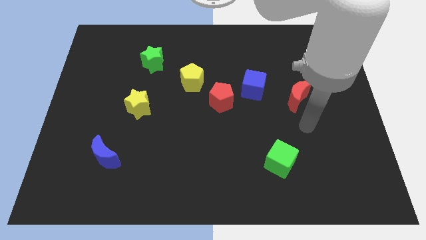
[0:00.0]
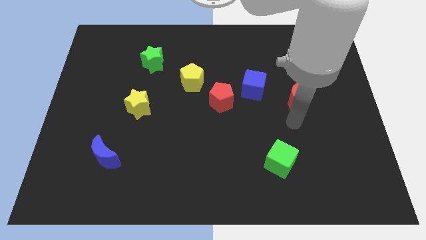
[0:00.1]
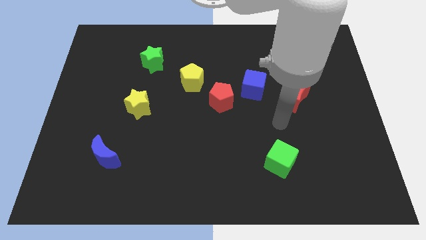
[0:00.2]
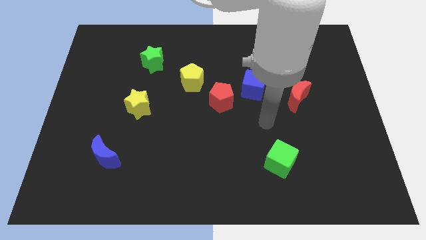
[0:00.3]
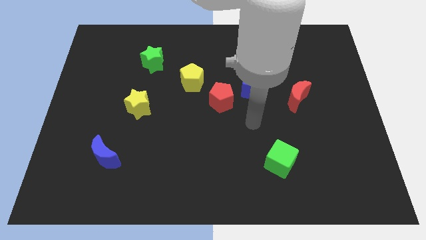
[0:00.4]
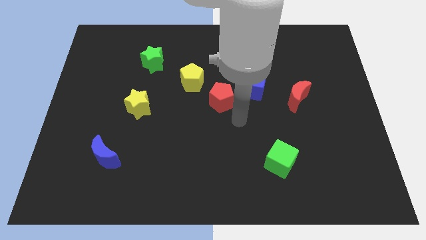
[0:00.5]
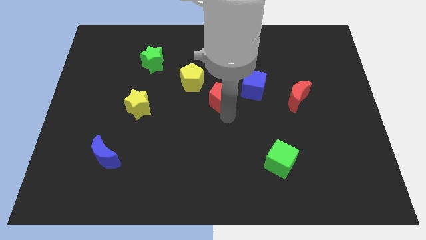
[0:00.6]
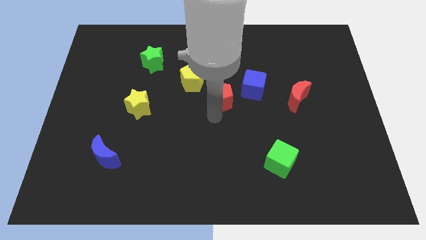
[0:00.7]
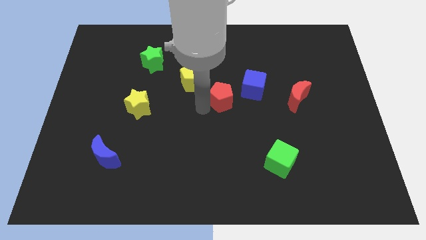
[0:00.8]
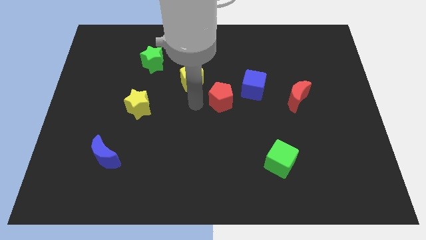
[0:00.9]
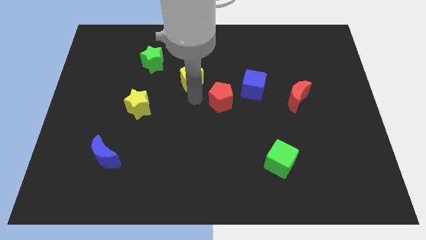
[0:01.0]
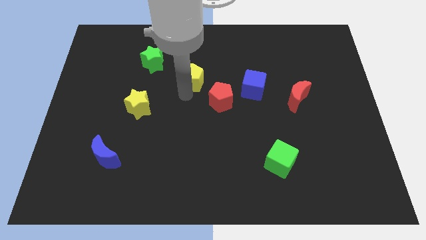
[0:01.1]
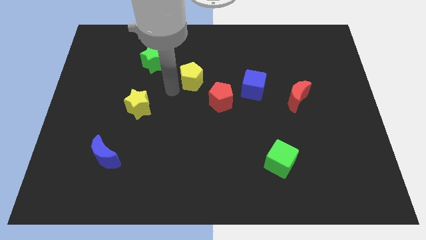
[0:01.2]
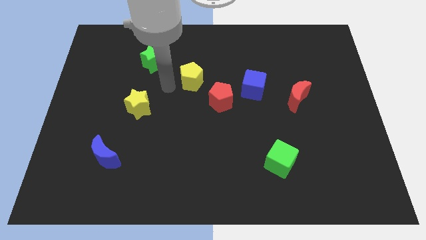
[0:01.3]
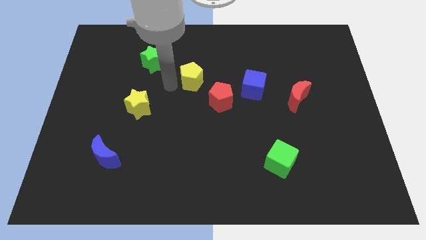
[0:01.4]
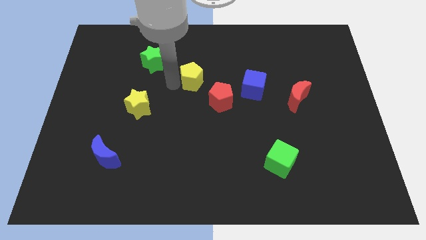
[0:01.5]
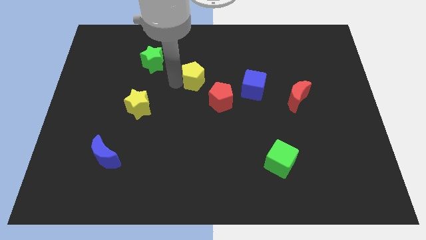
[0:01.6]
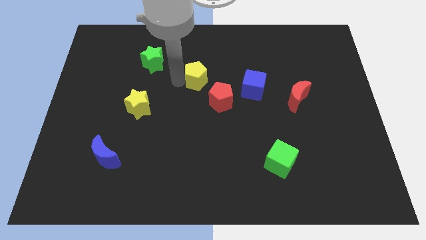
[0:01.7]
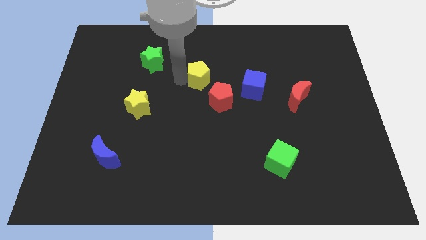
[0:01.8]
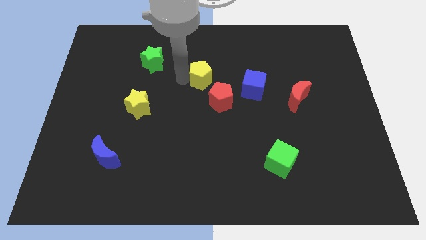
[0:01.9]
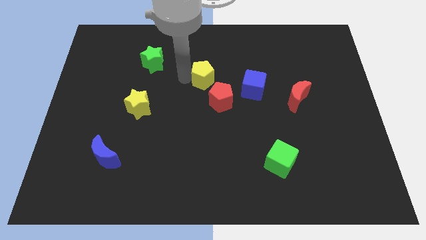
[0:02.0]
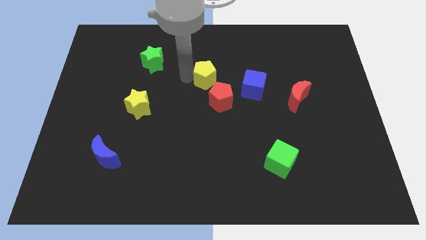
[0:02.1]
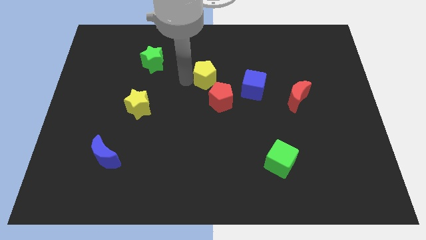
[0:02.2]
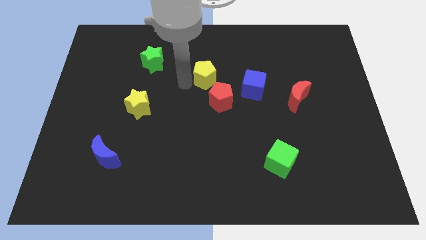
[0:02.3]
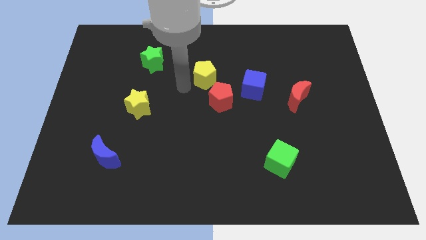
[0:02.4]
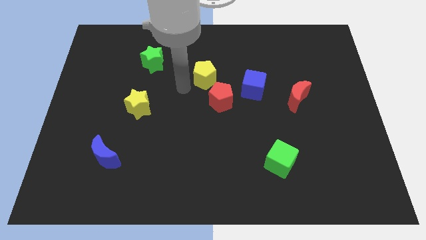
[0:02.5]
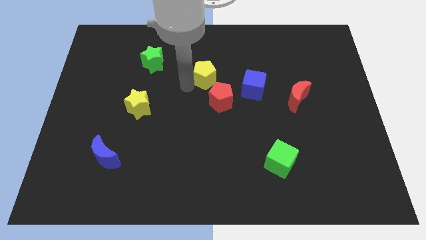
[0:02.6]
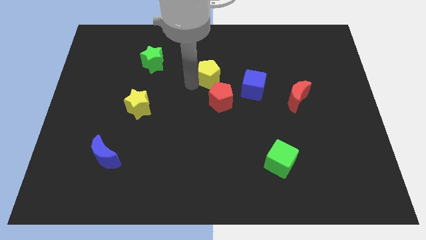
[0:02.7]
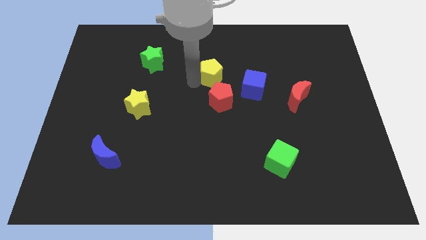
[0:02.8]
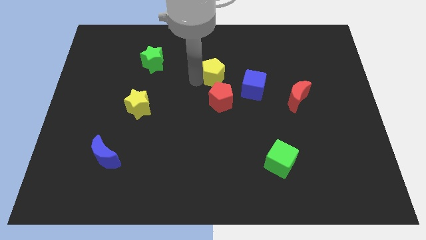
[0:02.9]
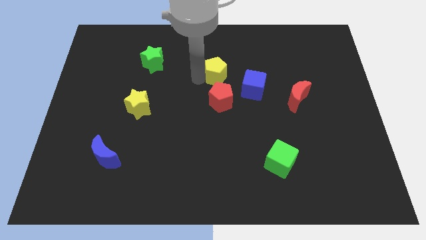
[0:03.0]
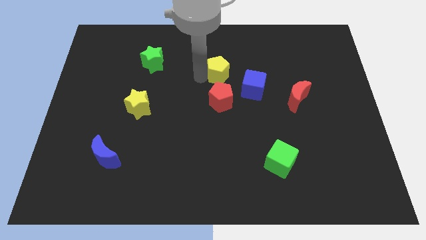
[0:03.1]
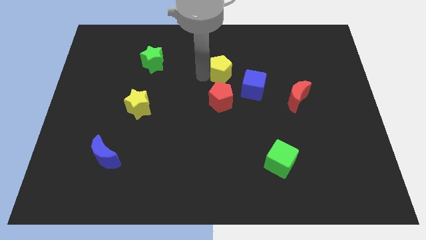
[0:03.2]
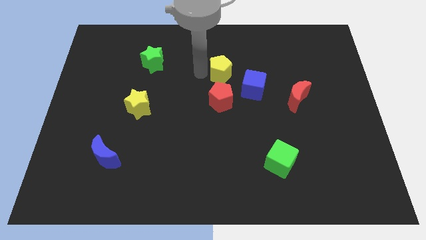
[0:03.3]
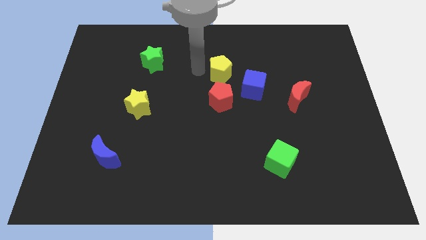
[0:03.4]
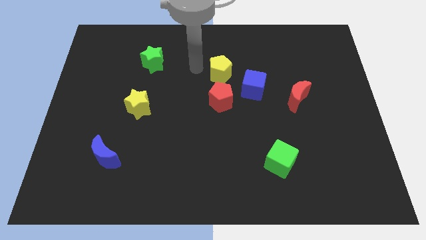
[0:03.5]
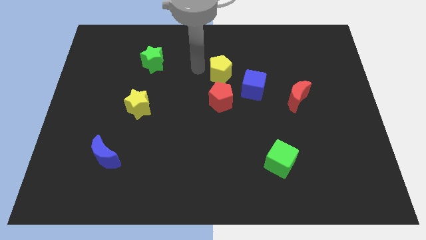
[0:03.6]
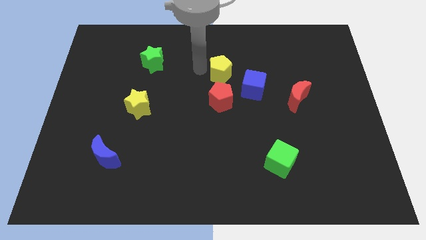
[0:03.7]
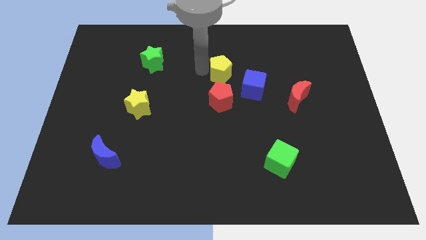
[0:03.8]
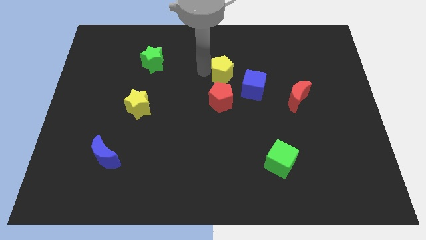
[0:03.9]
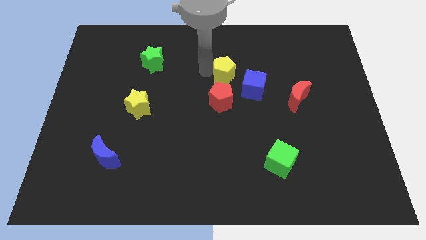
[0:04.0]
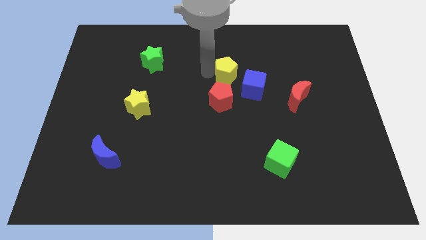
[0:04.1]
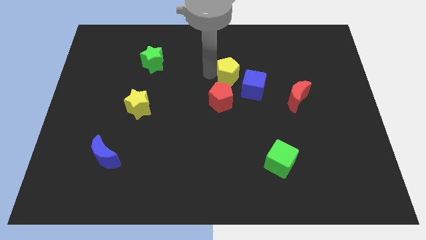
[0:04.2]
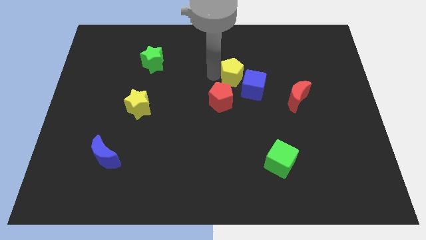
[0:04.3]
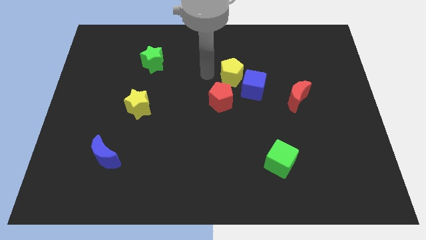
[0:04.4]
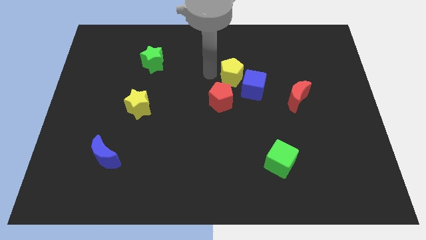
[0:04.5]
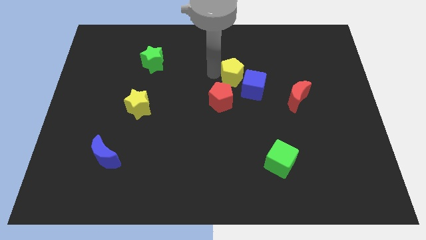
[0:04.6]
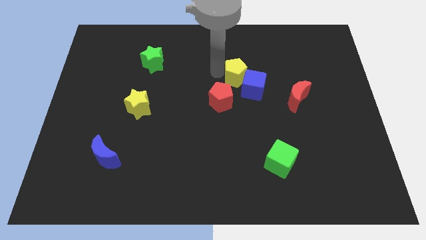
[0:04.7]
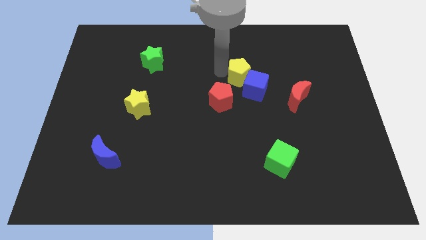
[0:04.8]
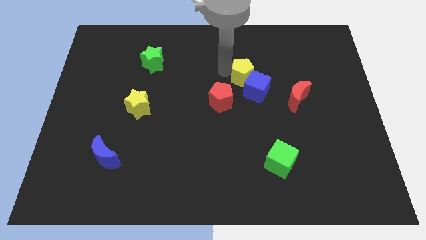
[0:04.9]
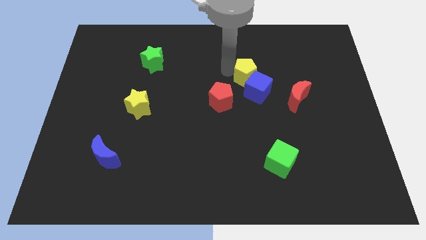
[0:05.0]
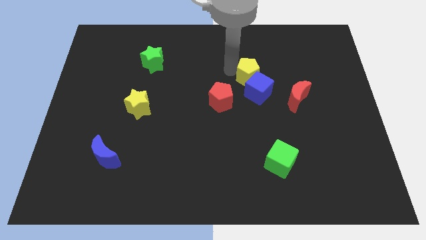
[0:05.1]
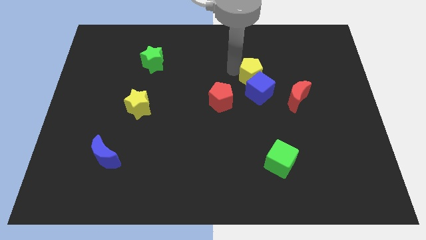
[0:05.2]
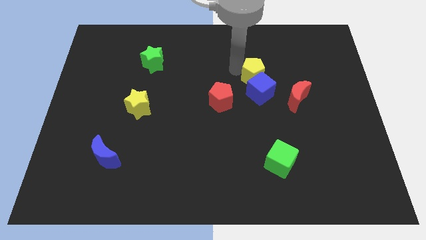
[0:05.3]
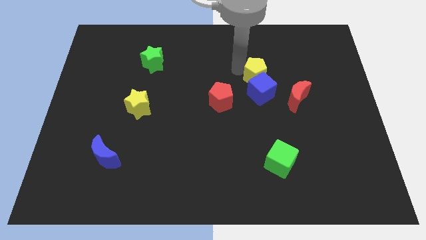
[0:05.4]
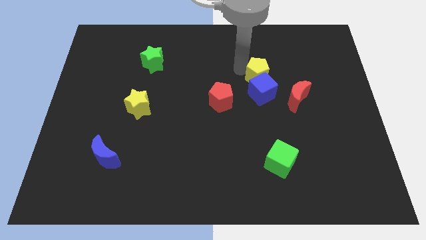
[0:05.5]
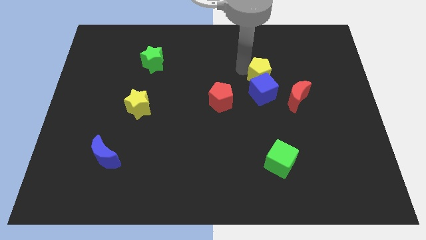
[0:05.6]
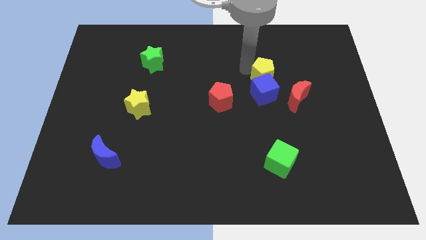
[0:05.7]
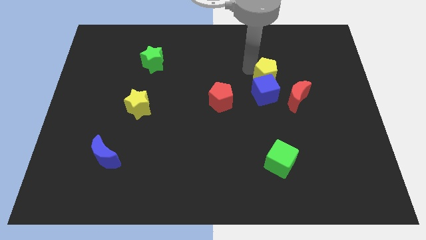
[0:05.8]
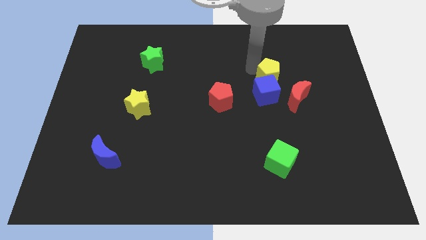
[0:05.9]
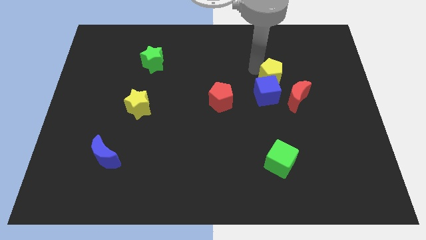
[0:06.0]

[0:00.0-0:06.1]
push the yellow pentagon right

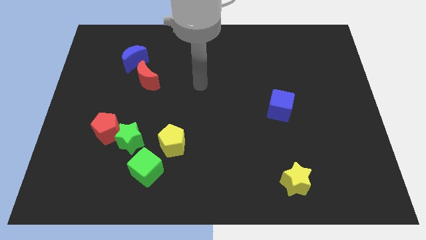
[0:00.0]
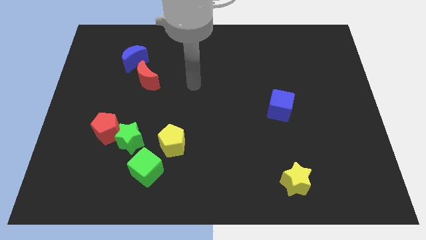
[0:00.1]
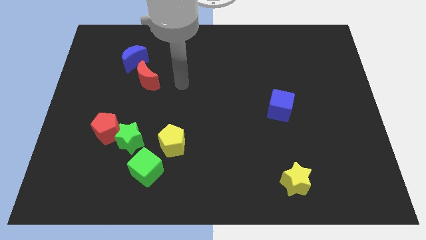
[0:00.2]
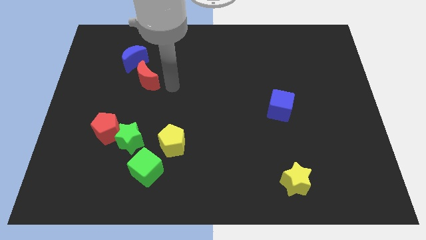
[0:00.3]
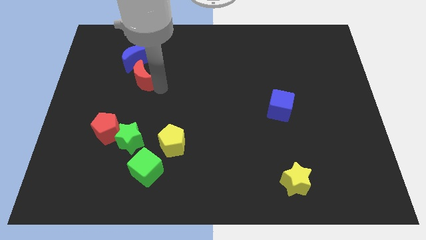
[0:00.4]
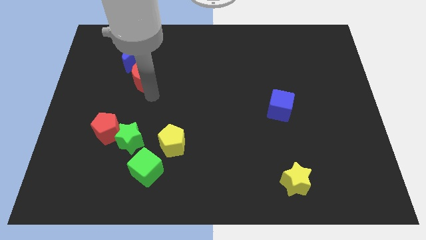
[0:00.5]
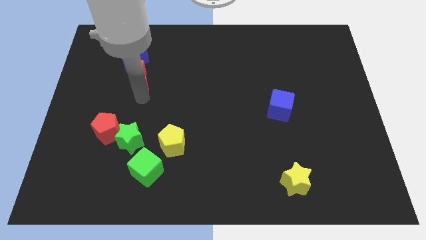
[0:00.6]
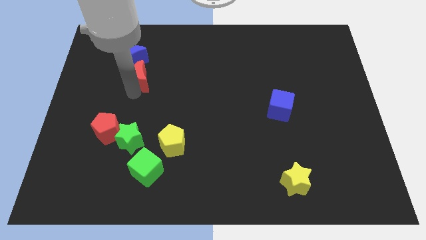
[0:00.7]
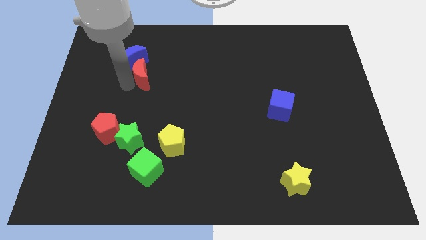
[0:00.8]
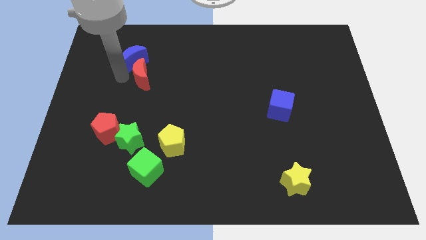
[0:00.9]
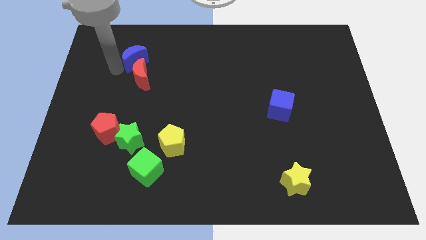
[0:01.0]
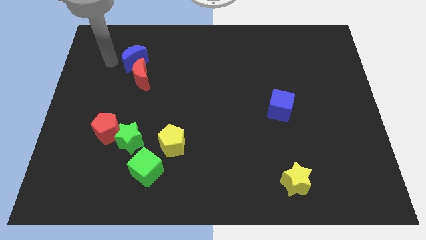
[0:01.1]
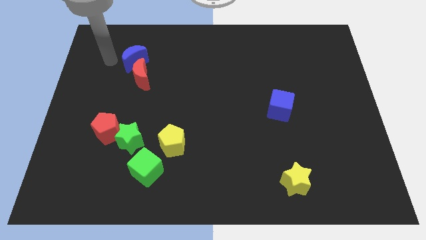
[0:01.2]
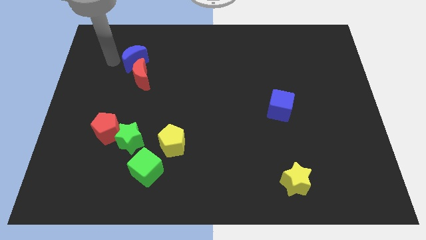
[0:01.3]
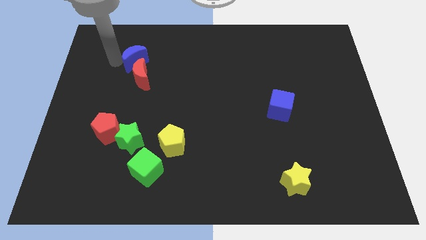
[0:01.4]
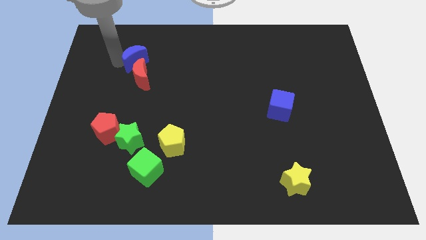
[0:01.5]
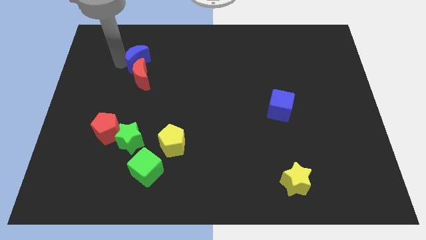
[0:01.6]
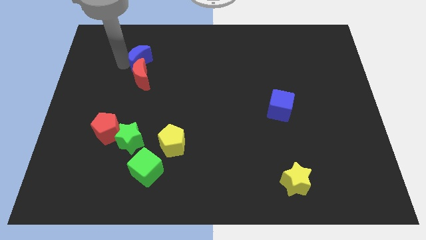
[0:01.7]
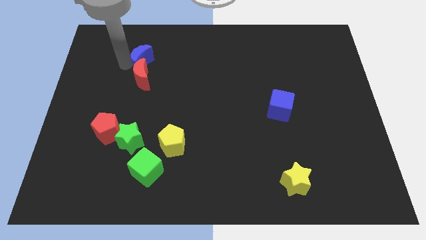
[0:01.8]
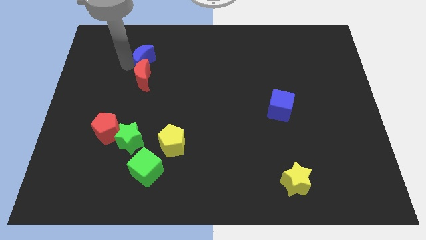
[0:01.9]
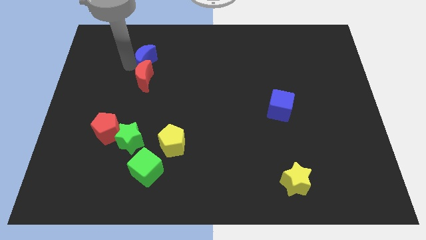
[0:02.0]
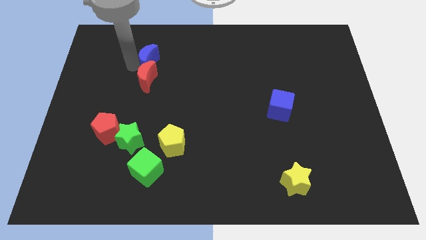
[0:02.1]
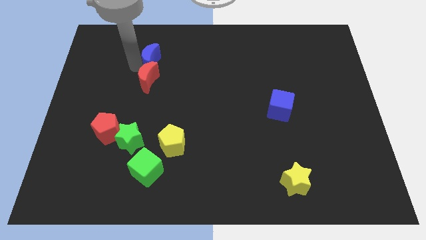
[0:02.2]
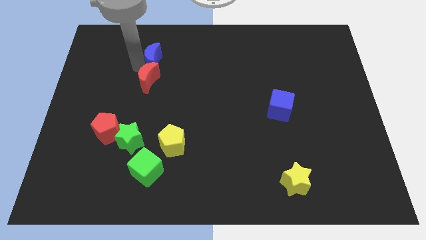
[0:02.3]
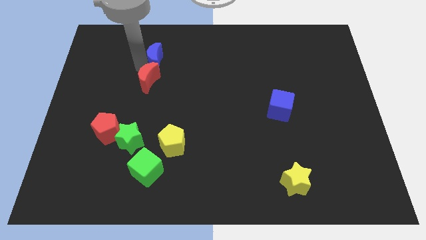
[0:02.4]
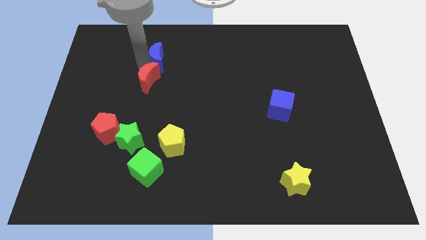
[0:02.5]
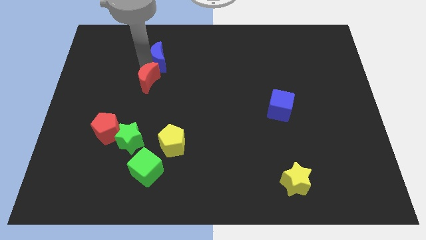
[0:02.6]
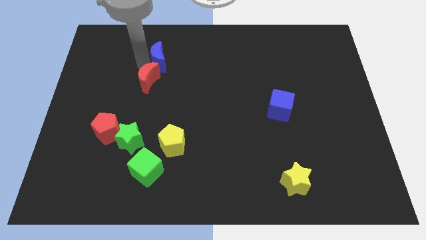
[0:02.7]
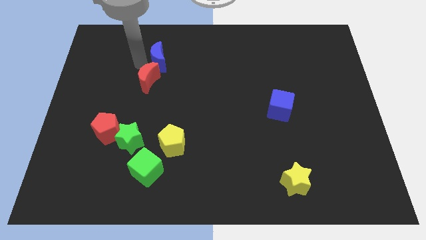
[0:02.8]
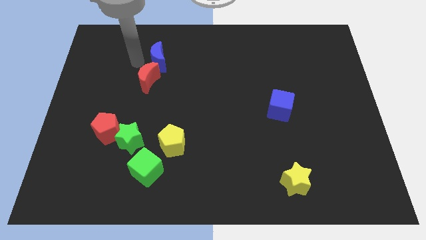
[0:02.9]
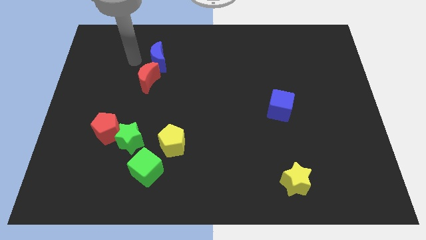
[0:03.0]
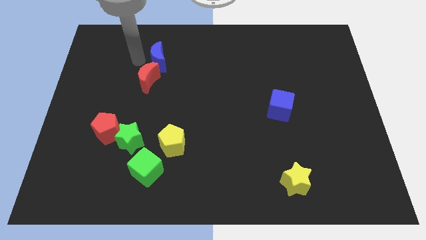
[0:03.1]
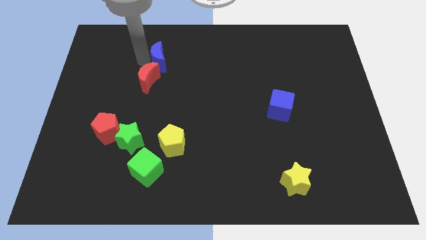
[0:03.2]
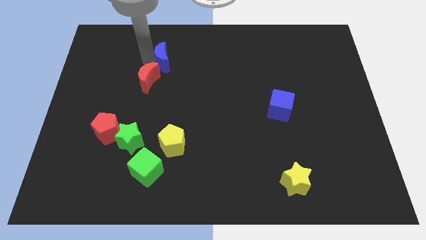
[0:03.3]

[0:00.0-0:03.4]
slightly push the blue moon right
